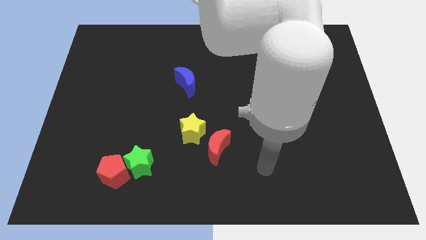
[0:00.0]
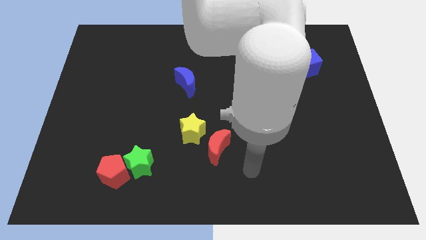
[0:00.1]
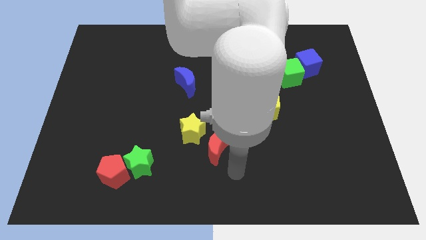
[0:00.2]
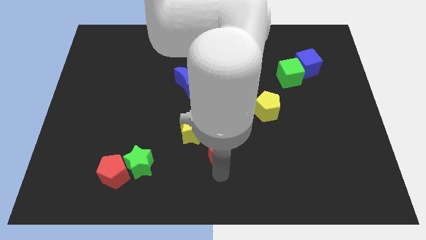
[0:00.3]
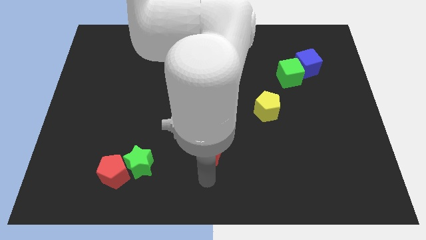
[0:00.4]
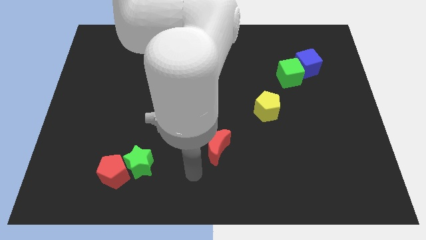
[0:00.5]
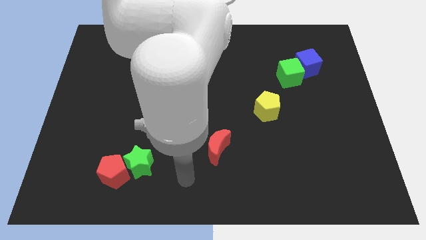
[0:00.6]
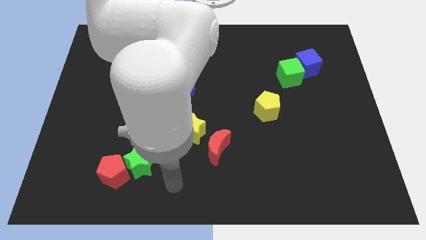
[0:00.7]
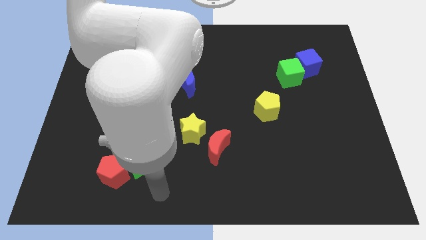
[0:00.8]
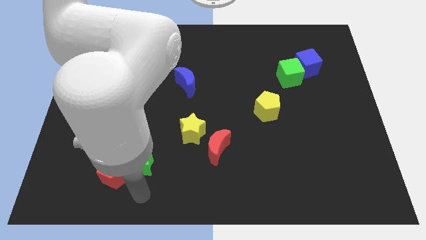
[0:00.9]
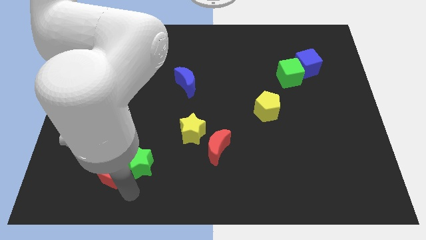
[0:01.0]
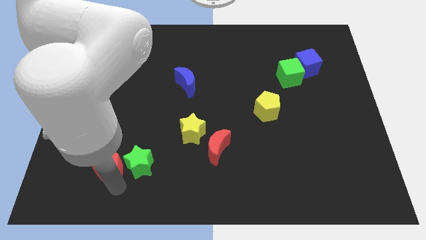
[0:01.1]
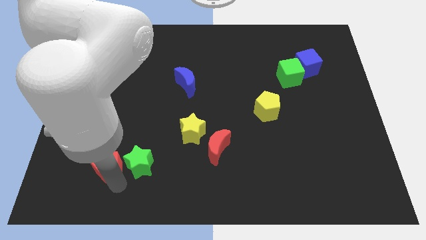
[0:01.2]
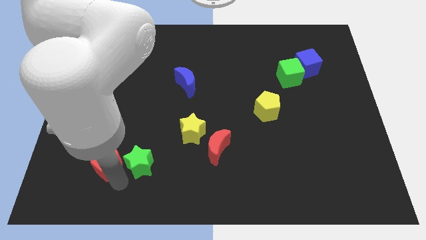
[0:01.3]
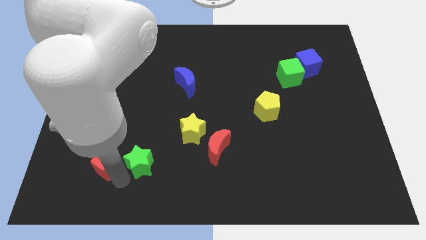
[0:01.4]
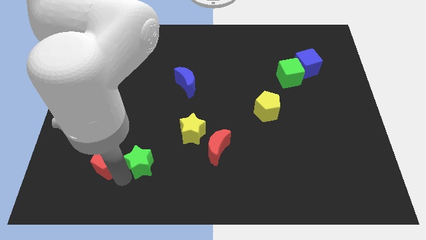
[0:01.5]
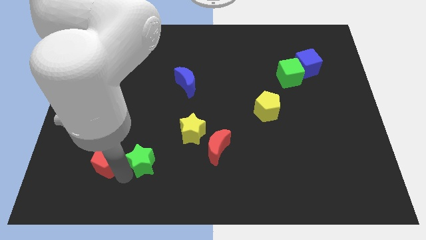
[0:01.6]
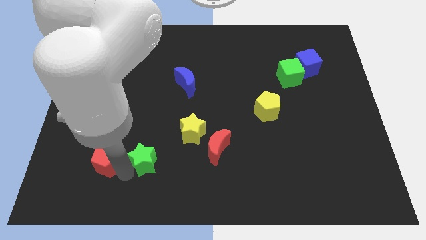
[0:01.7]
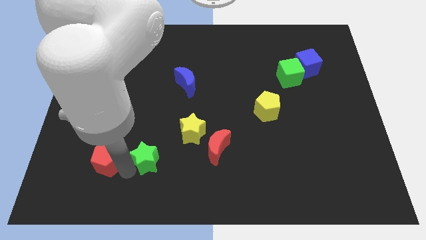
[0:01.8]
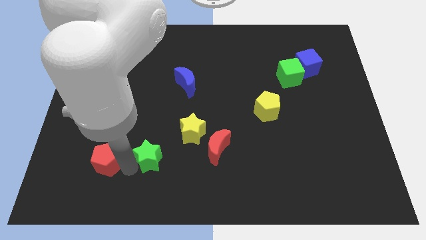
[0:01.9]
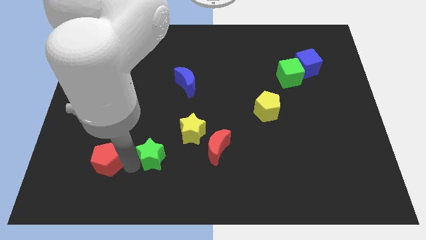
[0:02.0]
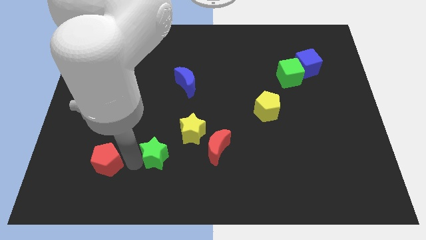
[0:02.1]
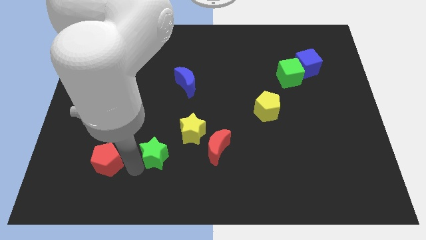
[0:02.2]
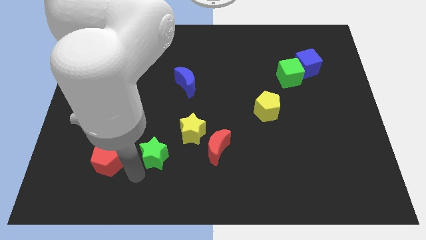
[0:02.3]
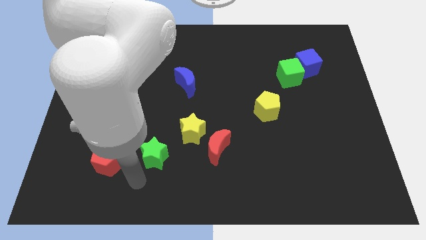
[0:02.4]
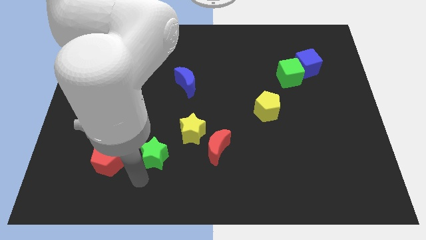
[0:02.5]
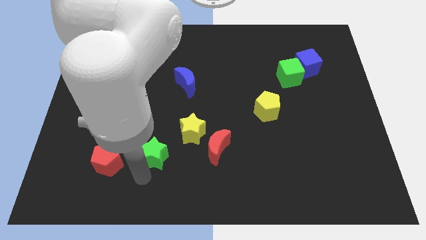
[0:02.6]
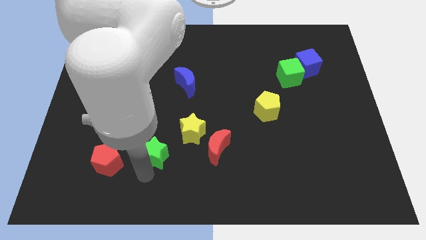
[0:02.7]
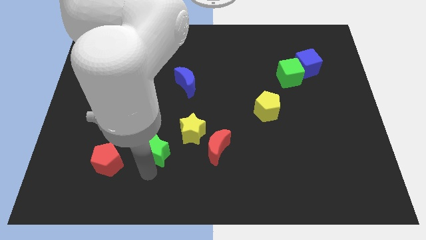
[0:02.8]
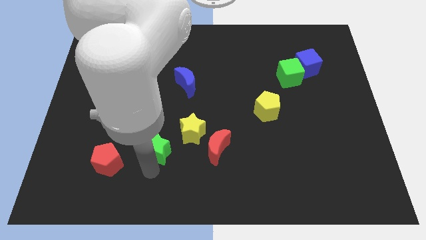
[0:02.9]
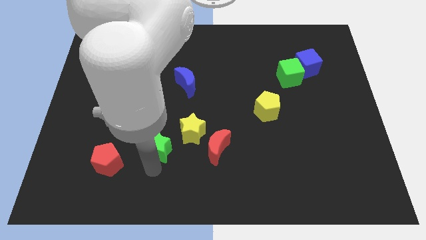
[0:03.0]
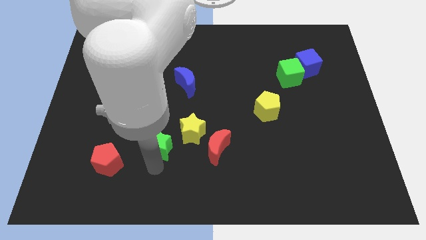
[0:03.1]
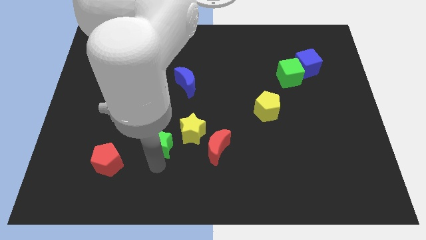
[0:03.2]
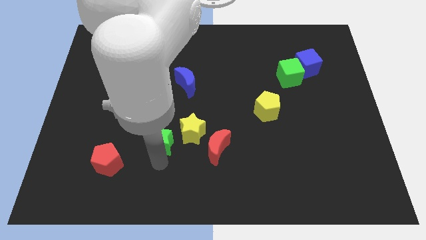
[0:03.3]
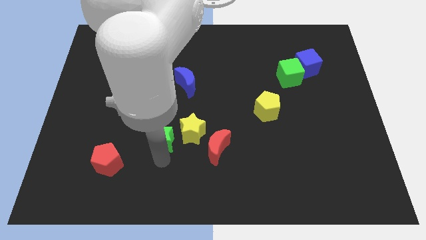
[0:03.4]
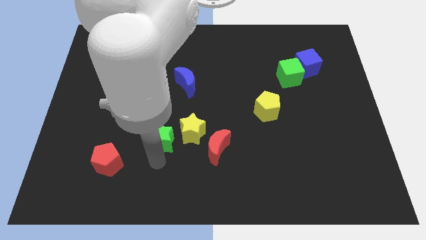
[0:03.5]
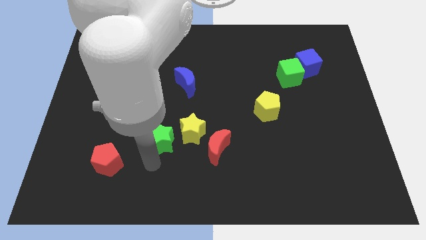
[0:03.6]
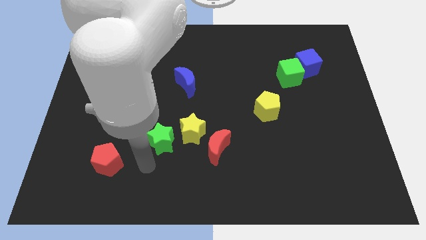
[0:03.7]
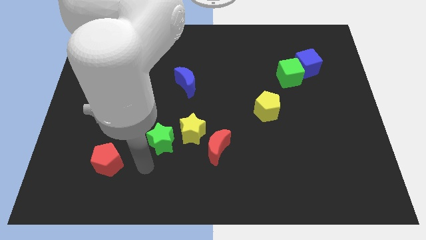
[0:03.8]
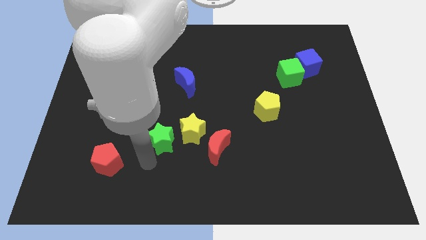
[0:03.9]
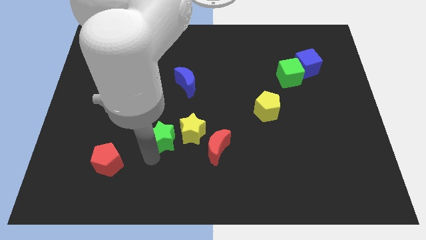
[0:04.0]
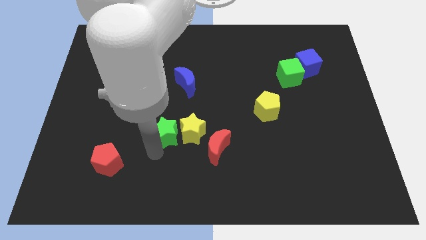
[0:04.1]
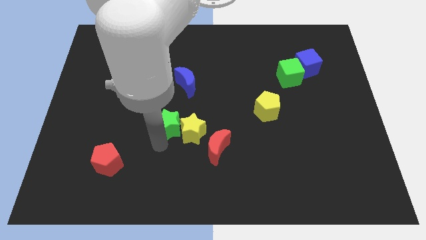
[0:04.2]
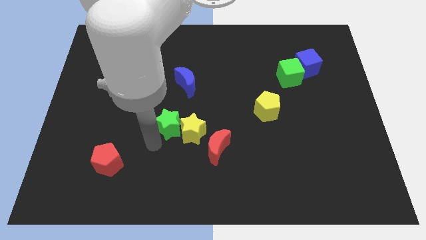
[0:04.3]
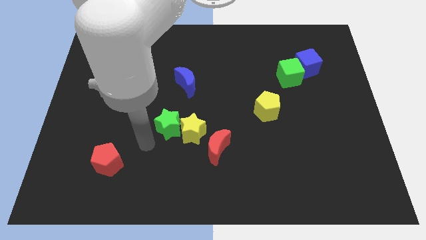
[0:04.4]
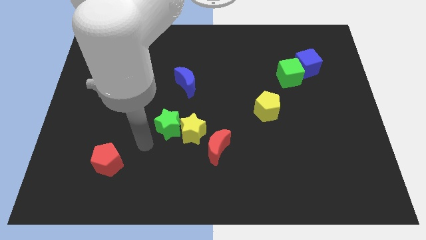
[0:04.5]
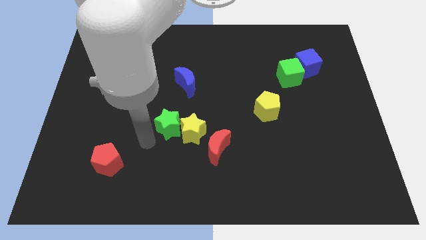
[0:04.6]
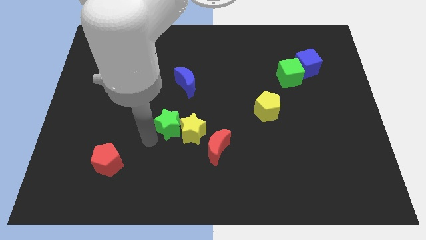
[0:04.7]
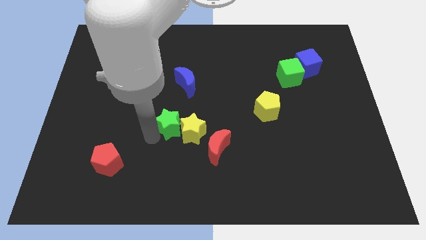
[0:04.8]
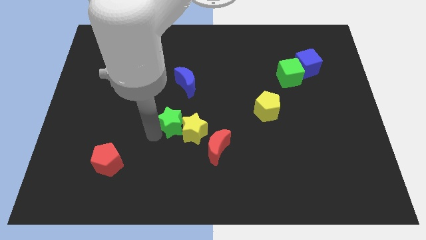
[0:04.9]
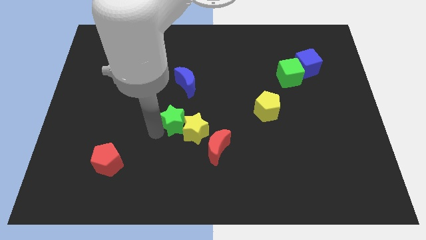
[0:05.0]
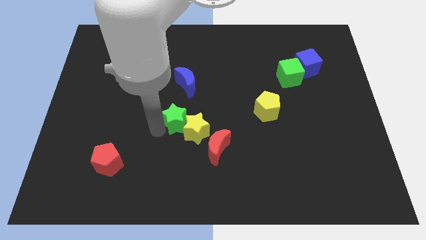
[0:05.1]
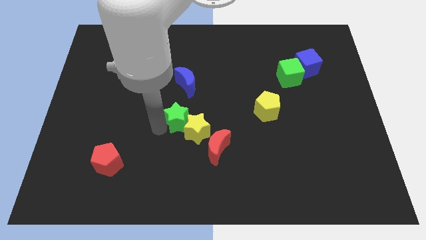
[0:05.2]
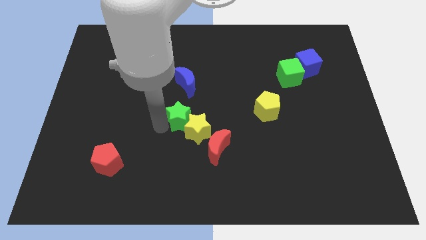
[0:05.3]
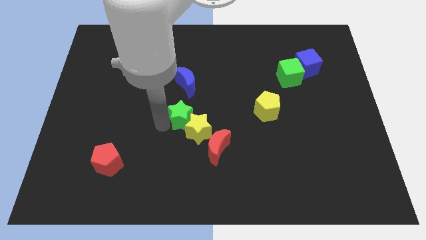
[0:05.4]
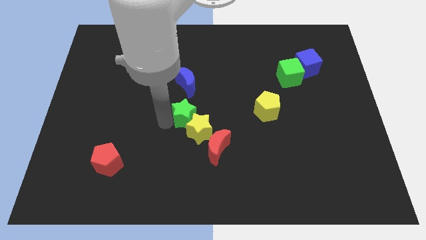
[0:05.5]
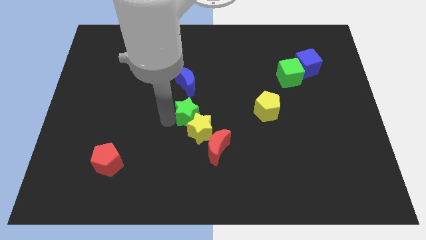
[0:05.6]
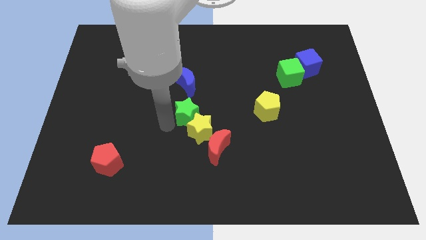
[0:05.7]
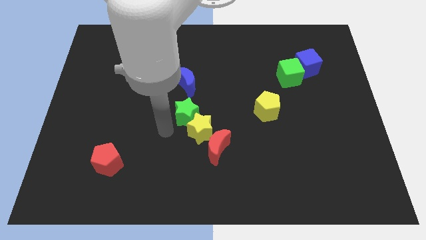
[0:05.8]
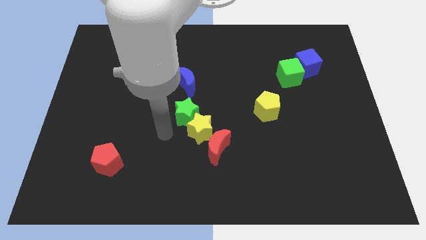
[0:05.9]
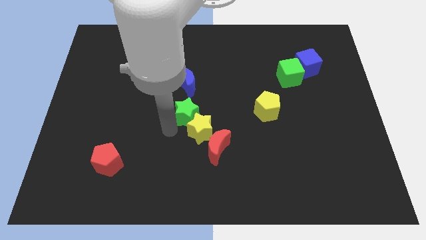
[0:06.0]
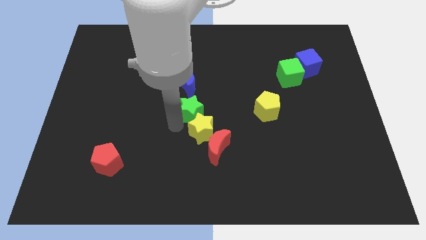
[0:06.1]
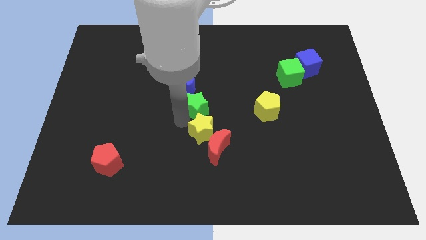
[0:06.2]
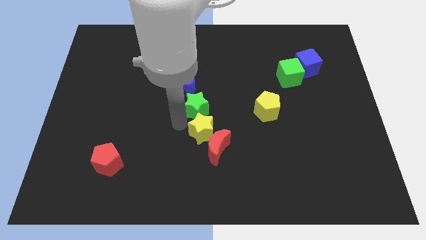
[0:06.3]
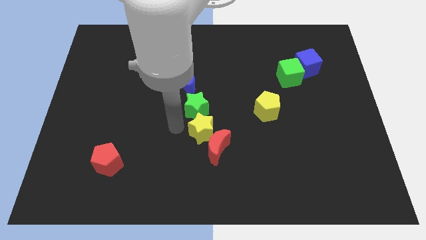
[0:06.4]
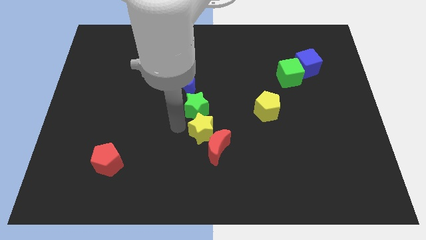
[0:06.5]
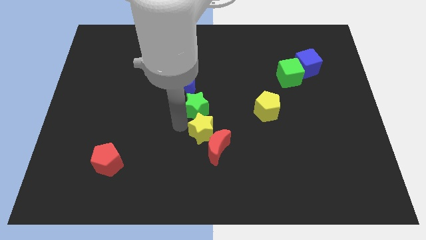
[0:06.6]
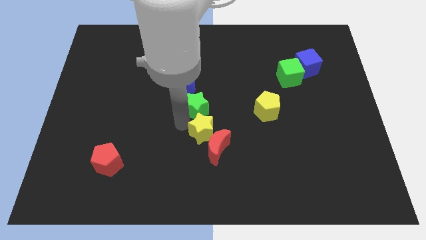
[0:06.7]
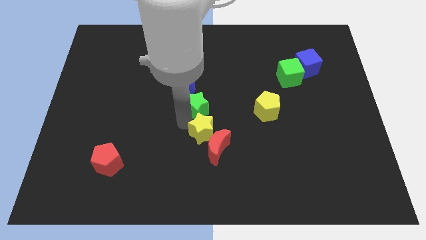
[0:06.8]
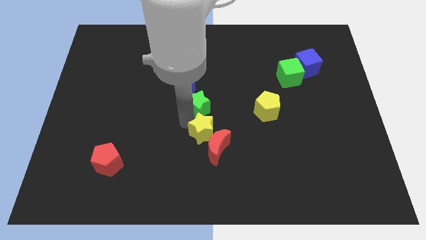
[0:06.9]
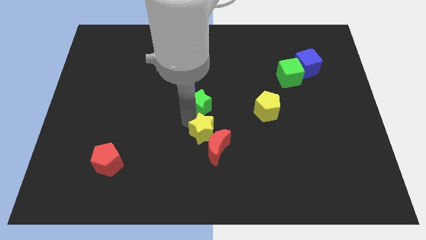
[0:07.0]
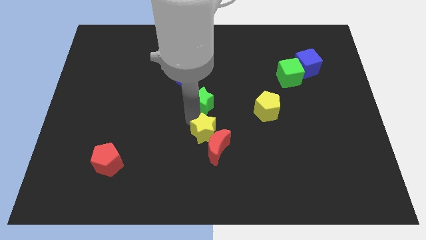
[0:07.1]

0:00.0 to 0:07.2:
push the green star up and right

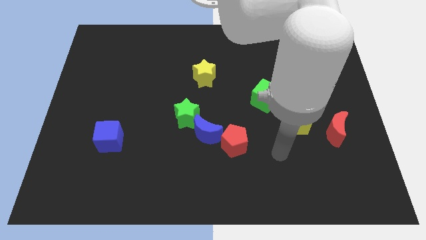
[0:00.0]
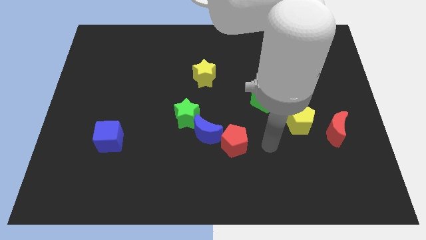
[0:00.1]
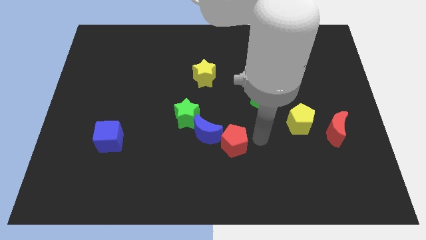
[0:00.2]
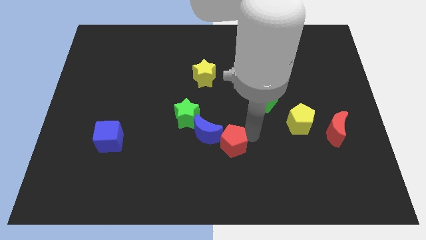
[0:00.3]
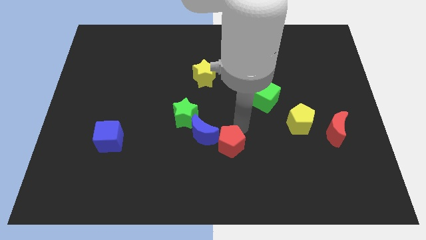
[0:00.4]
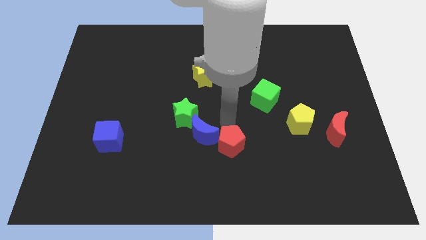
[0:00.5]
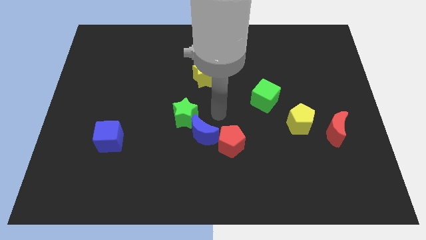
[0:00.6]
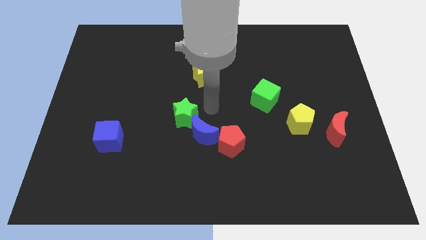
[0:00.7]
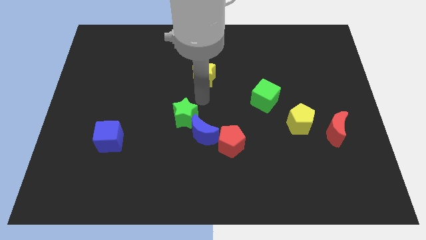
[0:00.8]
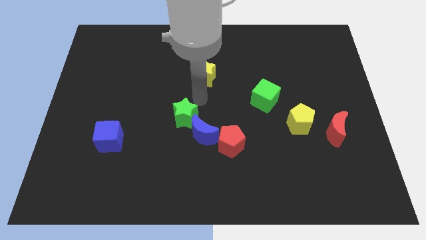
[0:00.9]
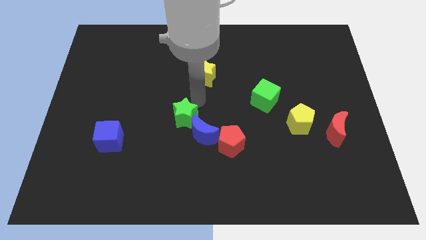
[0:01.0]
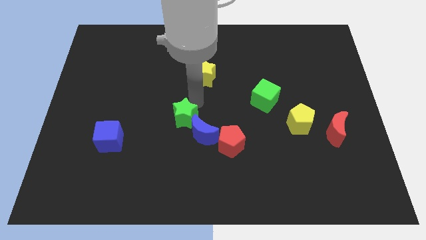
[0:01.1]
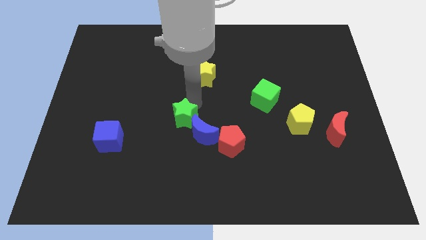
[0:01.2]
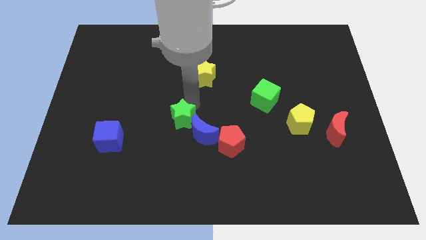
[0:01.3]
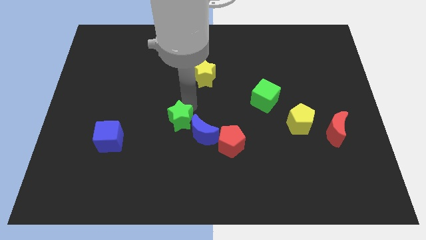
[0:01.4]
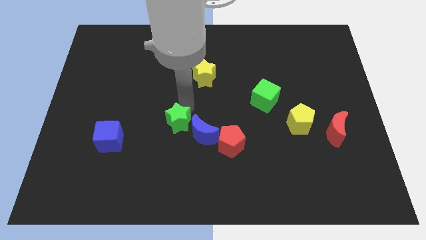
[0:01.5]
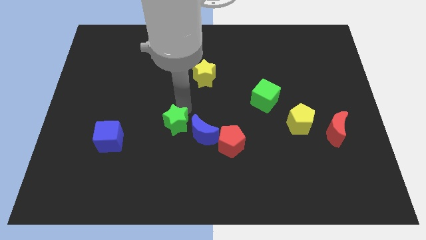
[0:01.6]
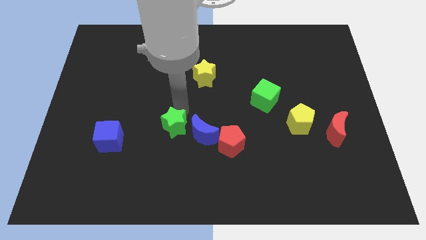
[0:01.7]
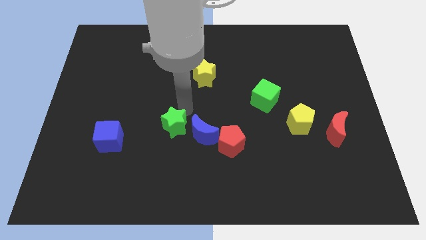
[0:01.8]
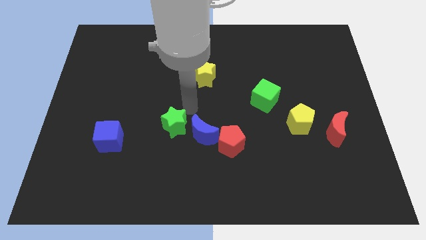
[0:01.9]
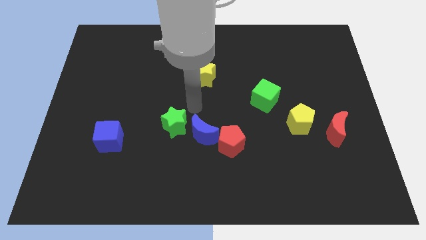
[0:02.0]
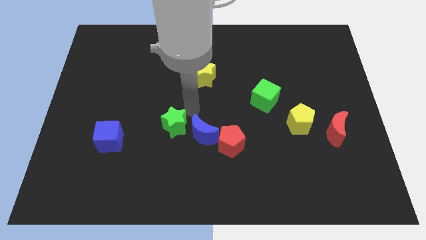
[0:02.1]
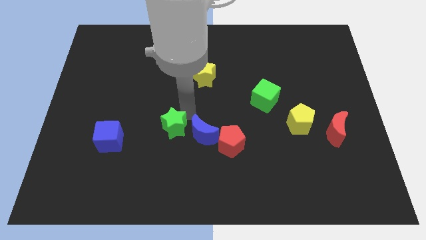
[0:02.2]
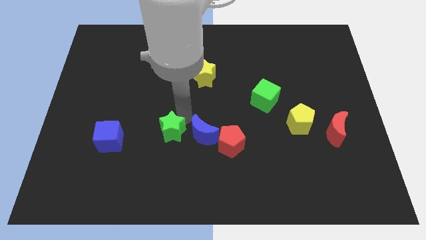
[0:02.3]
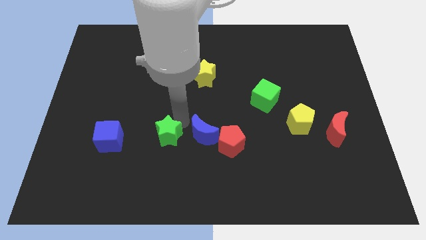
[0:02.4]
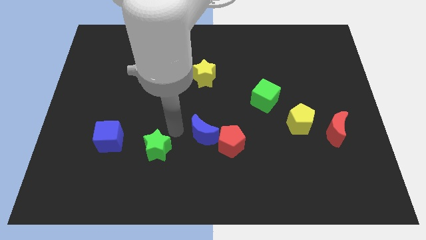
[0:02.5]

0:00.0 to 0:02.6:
slightly move the green star downwards and to the left diagonally
